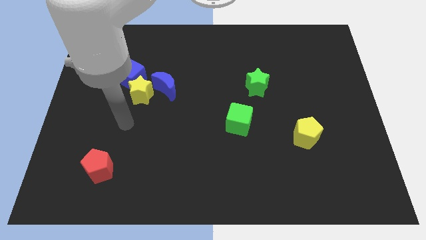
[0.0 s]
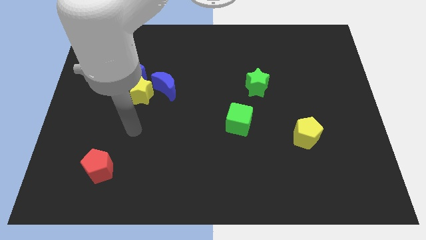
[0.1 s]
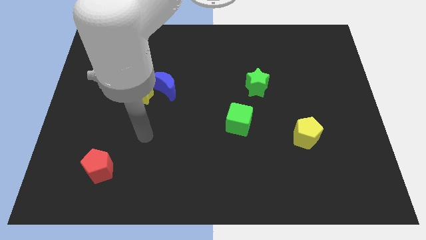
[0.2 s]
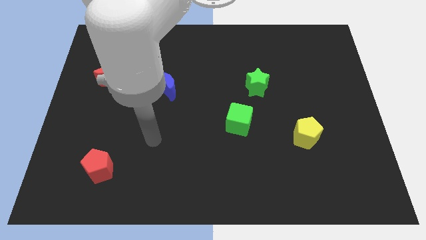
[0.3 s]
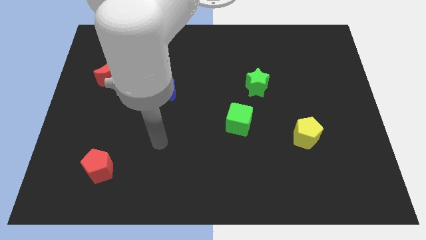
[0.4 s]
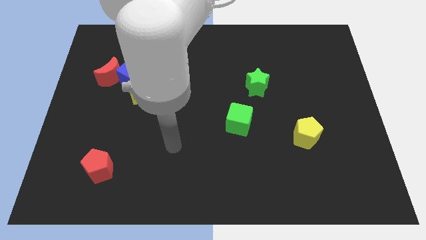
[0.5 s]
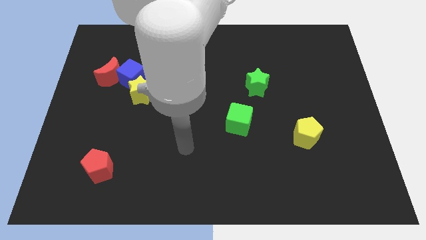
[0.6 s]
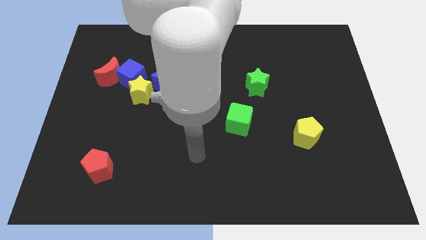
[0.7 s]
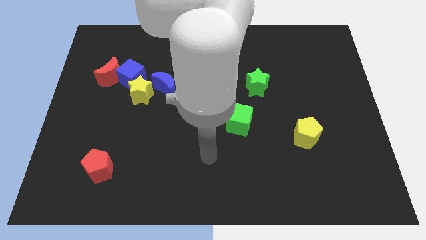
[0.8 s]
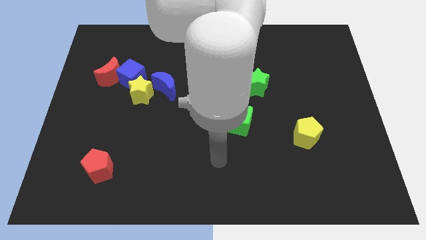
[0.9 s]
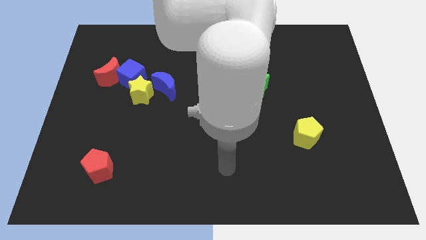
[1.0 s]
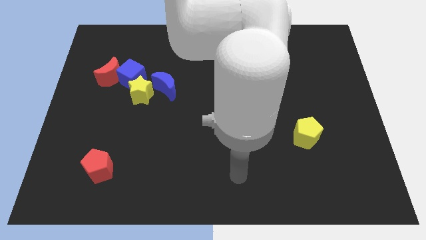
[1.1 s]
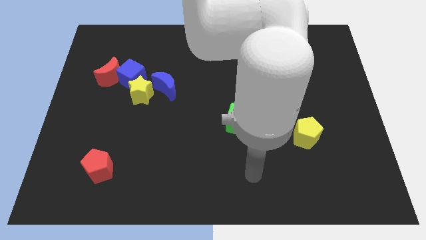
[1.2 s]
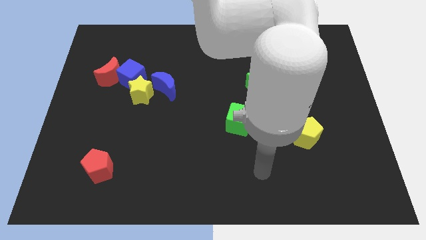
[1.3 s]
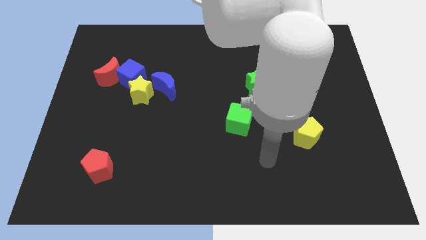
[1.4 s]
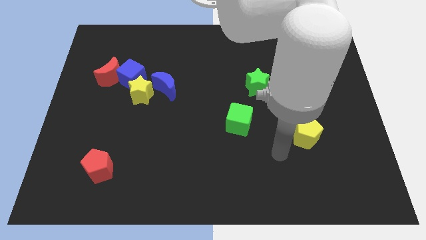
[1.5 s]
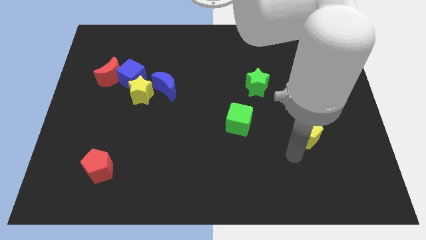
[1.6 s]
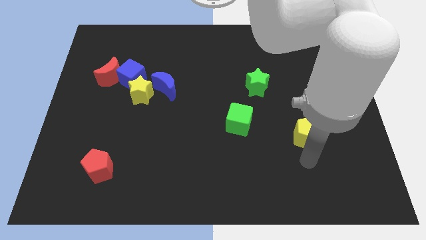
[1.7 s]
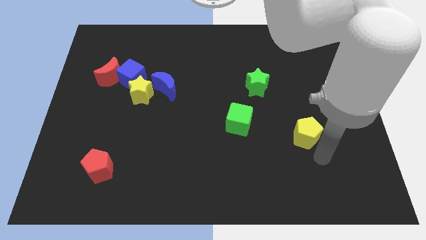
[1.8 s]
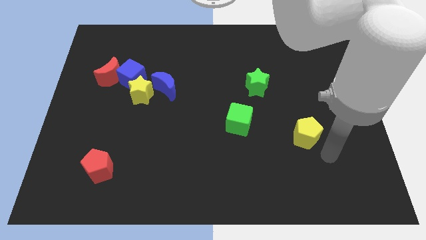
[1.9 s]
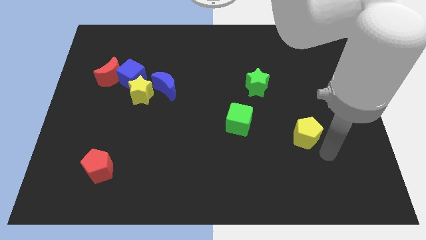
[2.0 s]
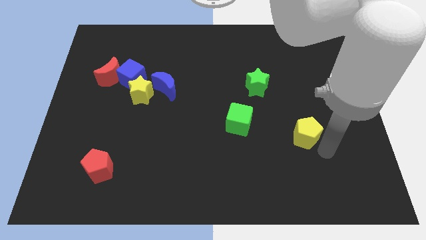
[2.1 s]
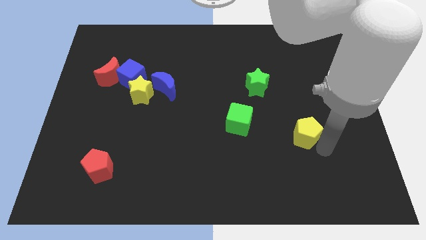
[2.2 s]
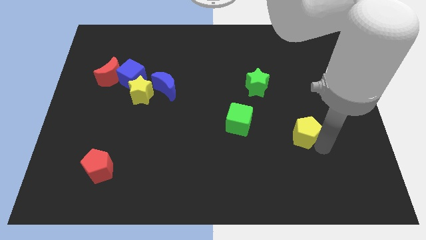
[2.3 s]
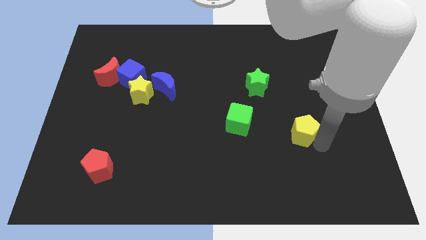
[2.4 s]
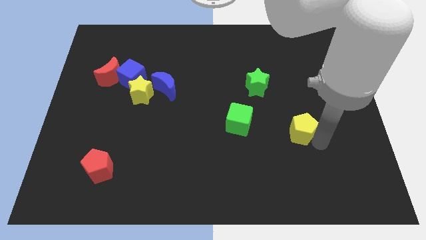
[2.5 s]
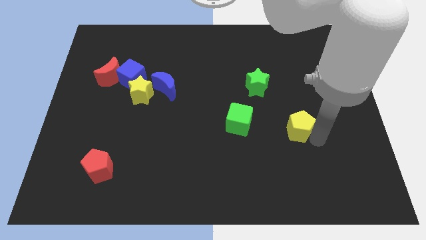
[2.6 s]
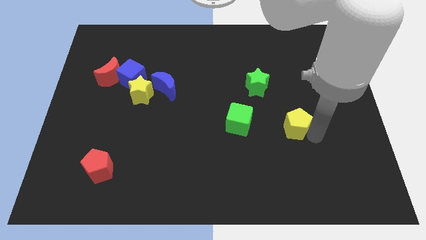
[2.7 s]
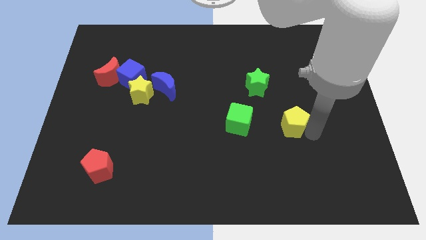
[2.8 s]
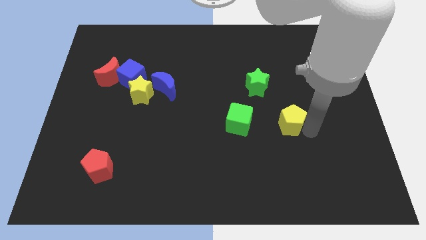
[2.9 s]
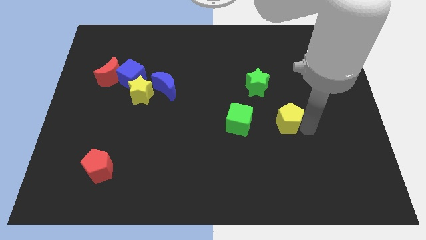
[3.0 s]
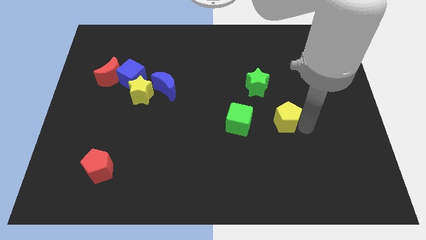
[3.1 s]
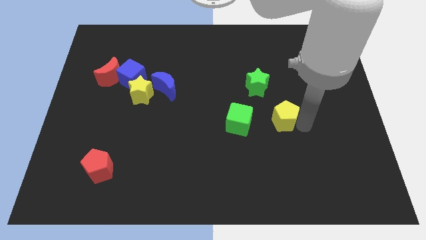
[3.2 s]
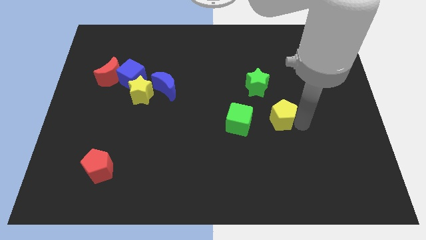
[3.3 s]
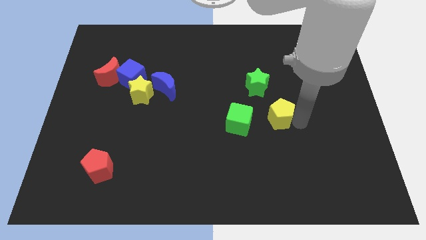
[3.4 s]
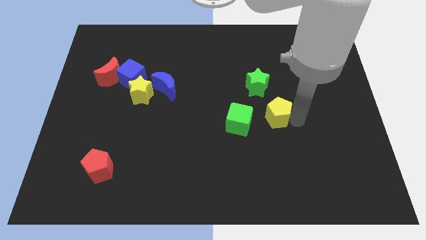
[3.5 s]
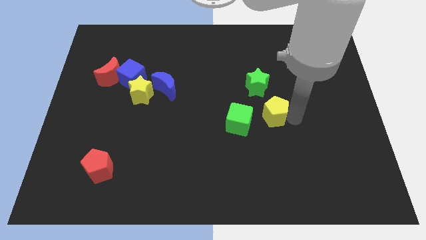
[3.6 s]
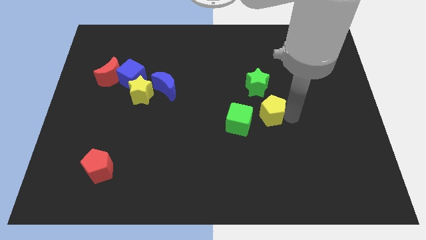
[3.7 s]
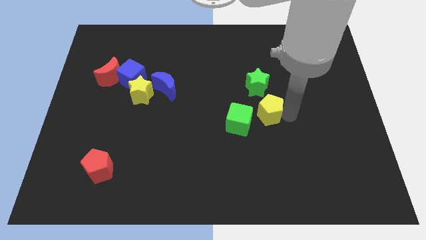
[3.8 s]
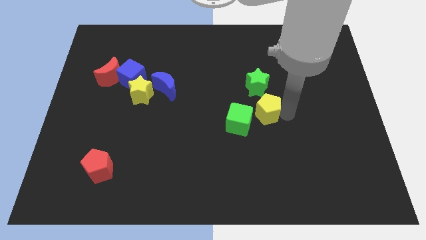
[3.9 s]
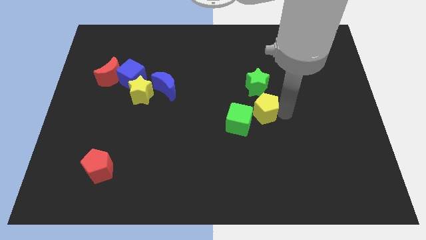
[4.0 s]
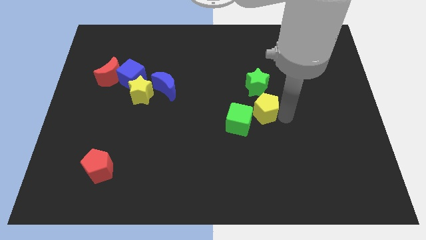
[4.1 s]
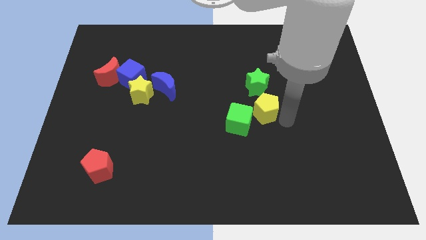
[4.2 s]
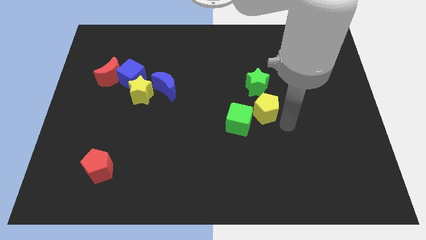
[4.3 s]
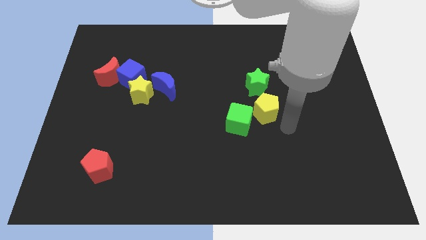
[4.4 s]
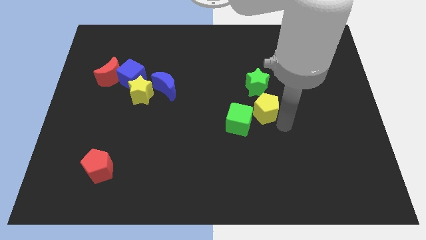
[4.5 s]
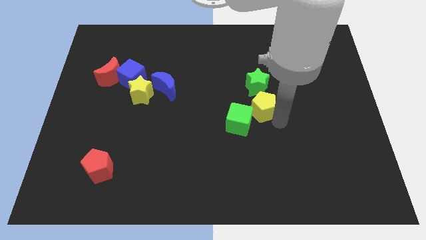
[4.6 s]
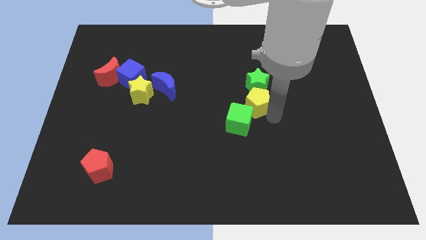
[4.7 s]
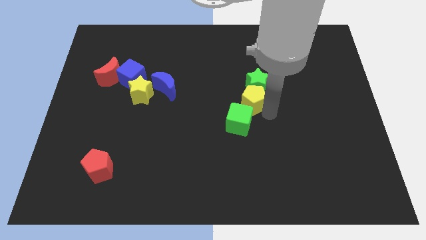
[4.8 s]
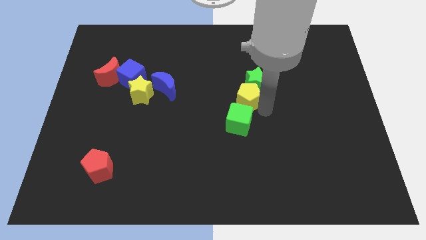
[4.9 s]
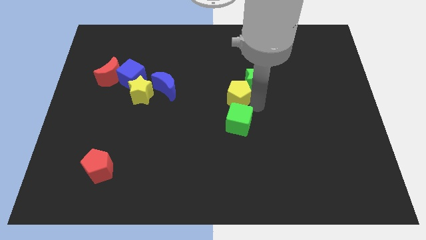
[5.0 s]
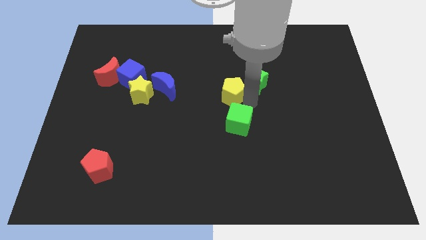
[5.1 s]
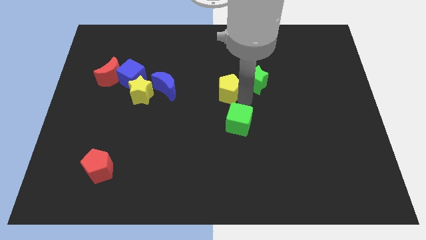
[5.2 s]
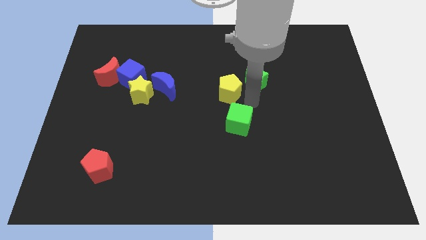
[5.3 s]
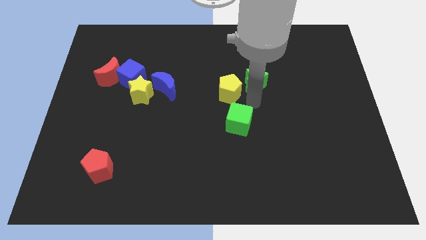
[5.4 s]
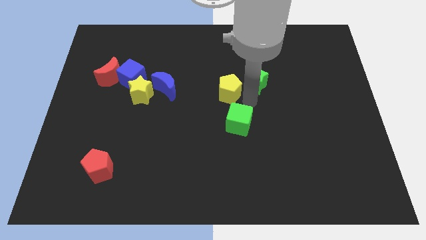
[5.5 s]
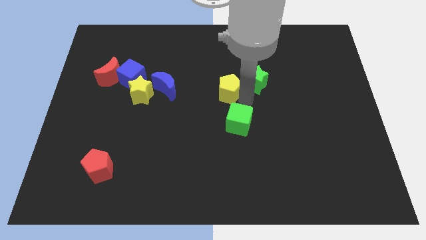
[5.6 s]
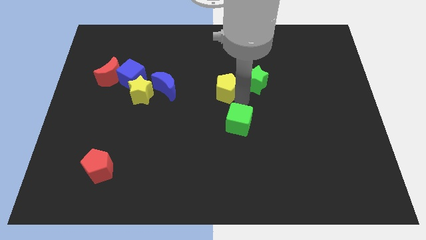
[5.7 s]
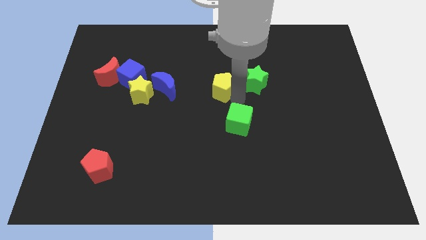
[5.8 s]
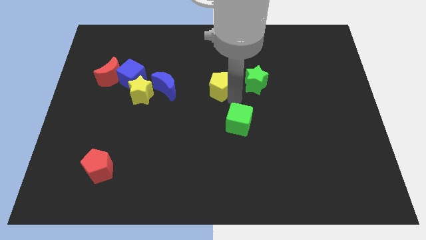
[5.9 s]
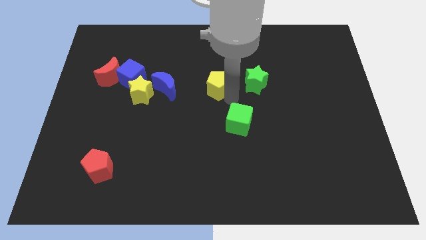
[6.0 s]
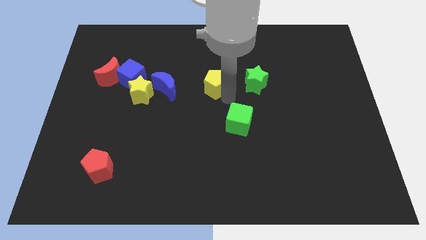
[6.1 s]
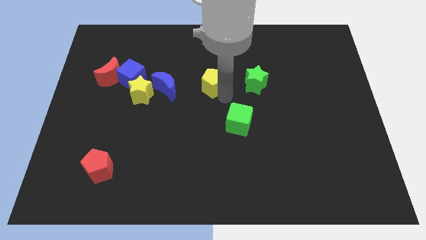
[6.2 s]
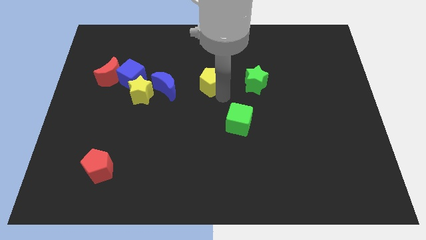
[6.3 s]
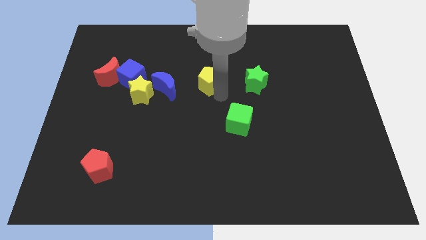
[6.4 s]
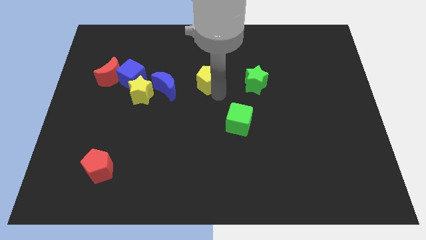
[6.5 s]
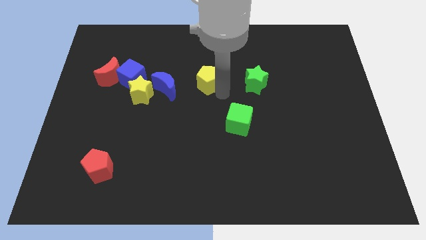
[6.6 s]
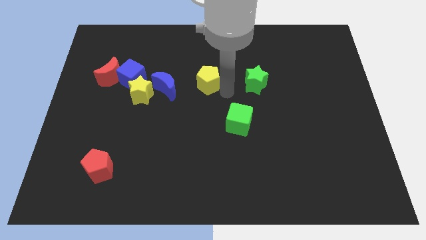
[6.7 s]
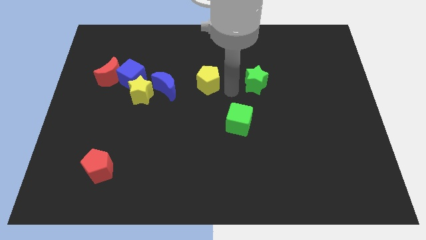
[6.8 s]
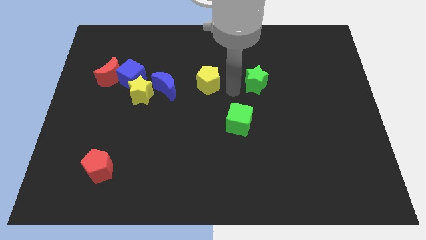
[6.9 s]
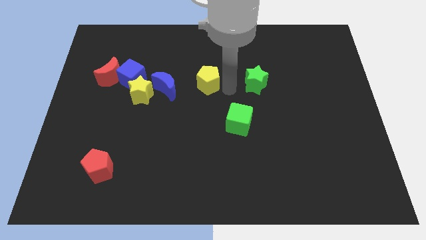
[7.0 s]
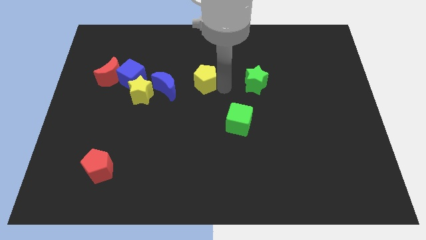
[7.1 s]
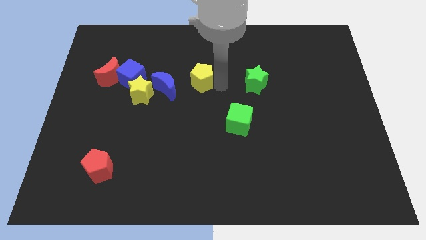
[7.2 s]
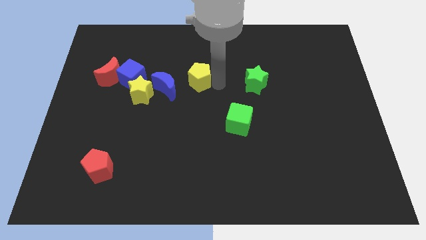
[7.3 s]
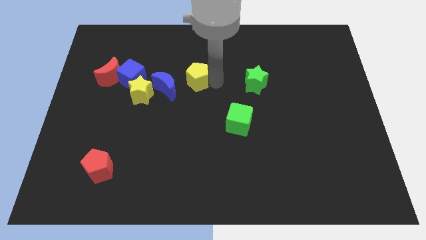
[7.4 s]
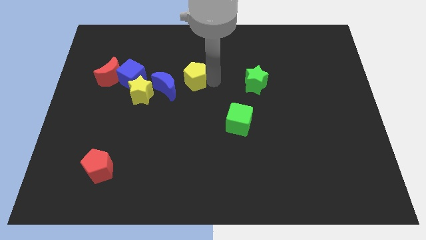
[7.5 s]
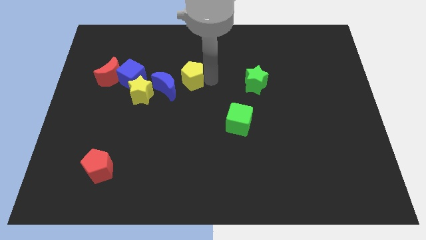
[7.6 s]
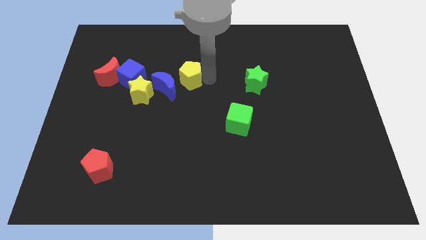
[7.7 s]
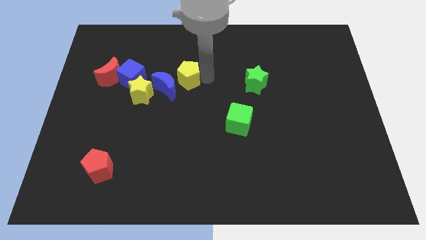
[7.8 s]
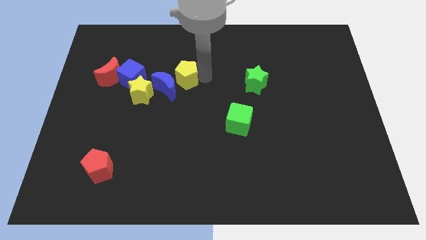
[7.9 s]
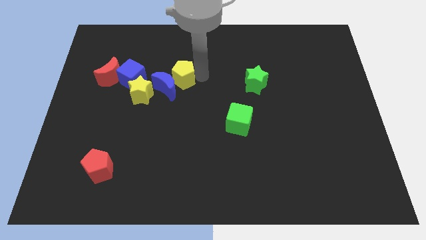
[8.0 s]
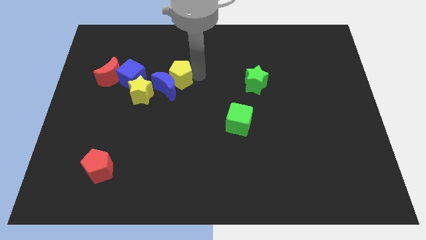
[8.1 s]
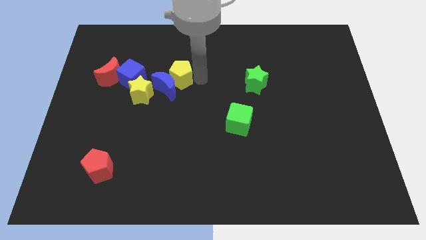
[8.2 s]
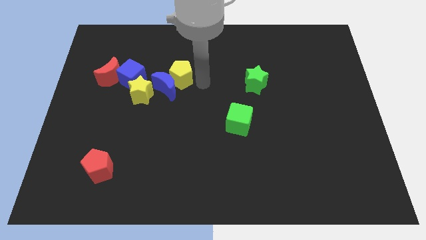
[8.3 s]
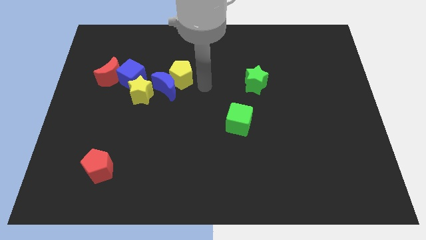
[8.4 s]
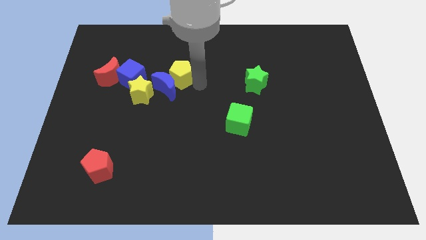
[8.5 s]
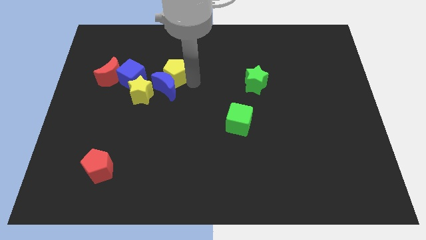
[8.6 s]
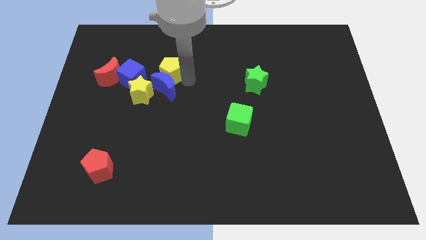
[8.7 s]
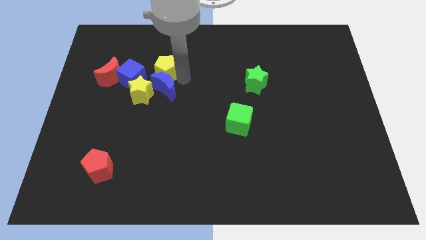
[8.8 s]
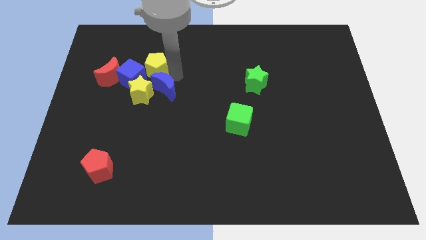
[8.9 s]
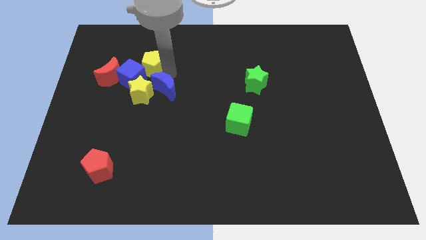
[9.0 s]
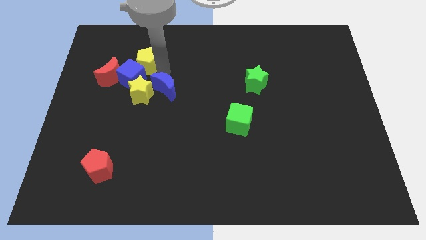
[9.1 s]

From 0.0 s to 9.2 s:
push the yellow pentagon to the top right side of the red moon
